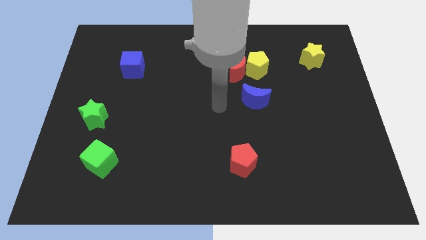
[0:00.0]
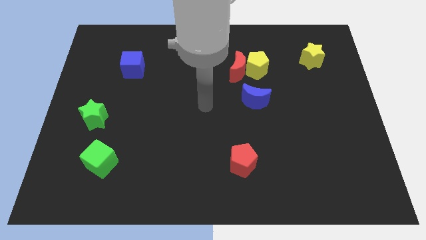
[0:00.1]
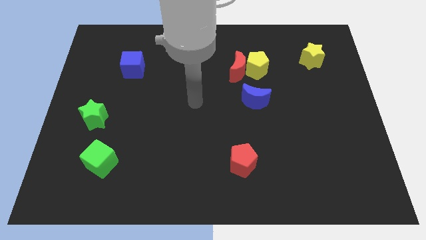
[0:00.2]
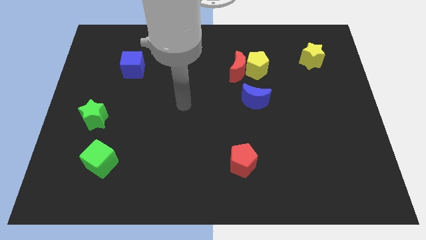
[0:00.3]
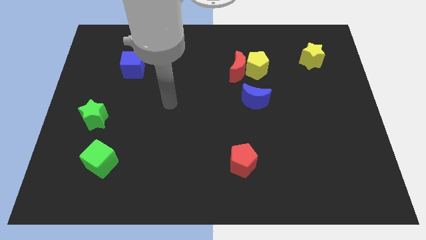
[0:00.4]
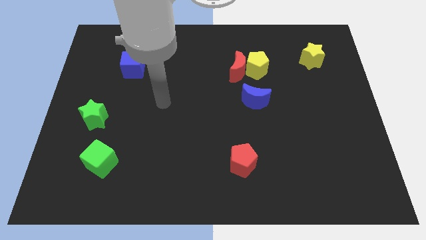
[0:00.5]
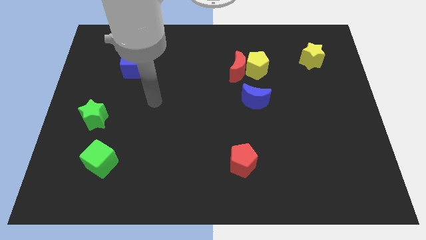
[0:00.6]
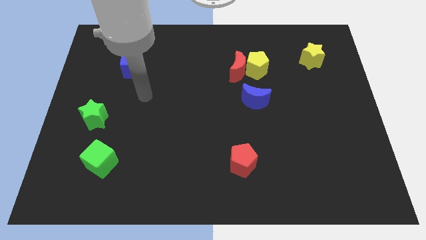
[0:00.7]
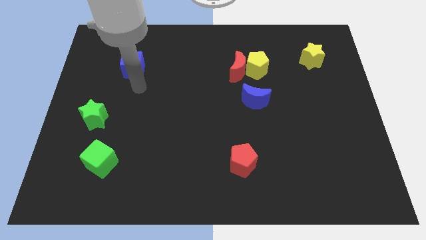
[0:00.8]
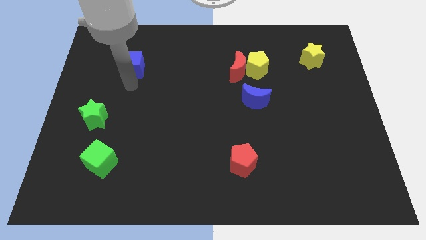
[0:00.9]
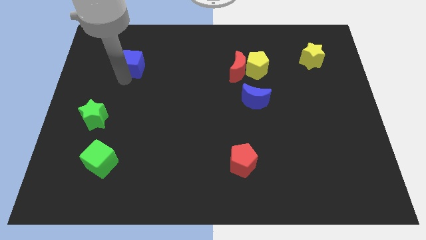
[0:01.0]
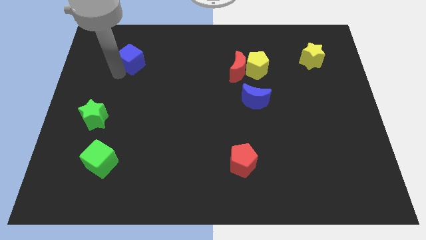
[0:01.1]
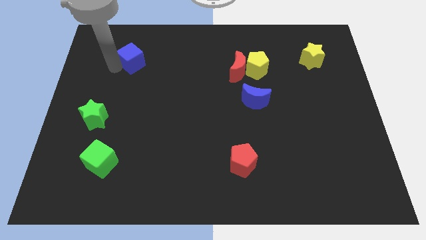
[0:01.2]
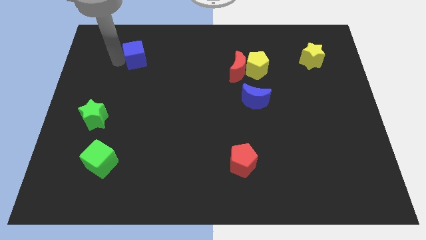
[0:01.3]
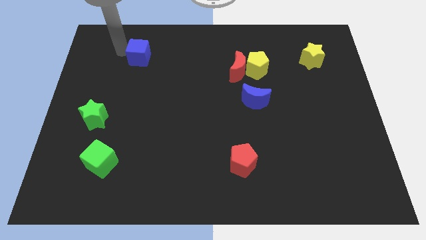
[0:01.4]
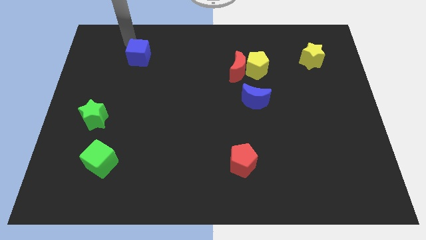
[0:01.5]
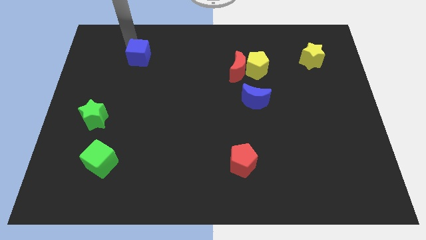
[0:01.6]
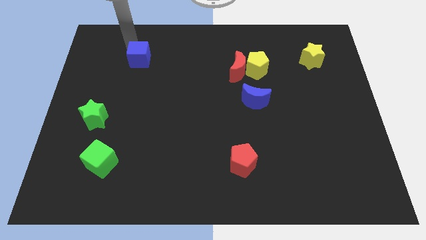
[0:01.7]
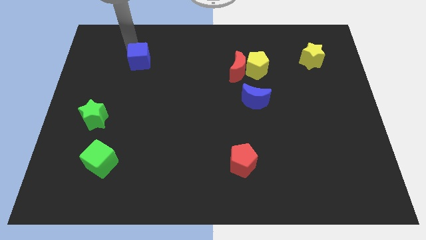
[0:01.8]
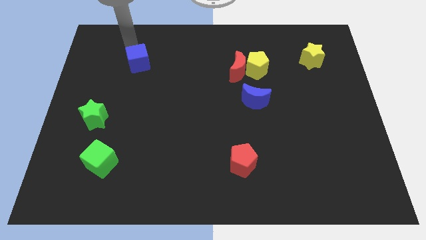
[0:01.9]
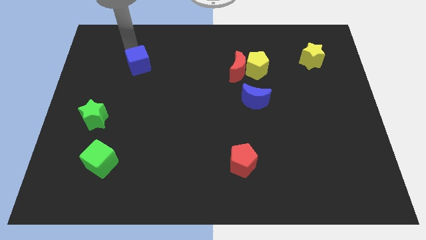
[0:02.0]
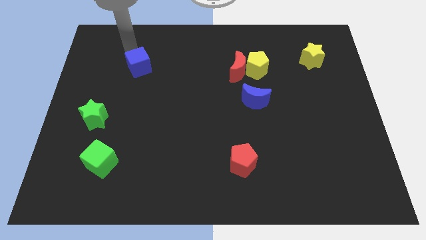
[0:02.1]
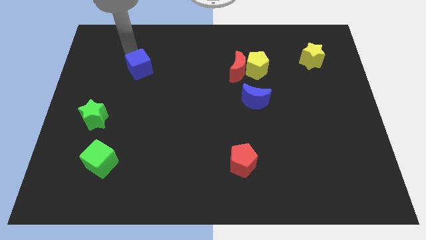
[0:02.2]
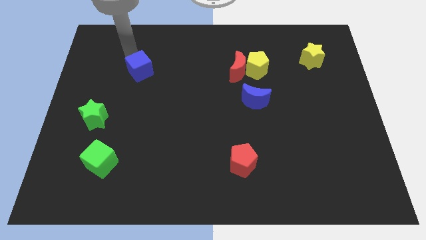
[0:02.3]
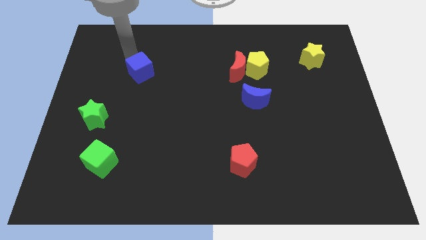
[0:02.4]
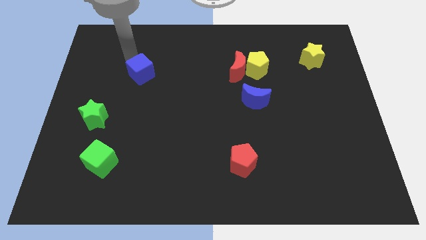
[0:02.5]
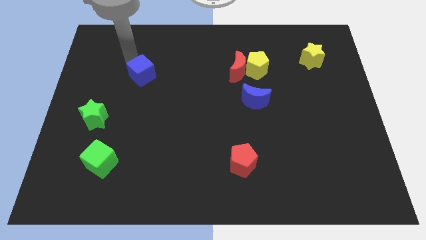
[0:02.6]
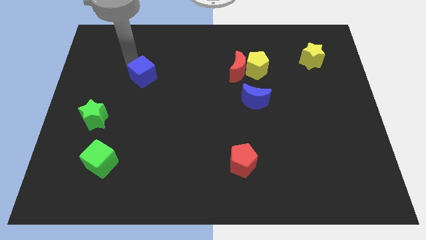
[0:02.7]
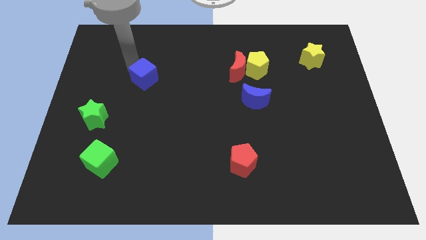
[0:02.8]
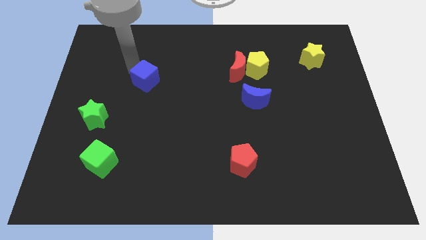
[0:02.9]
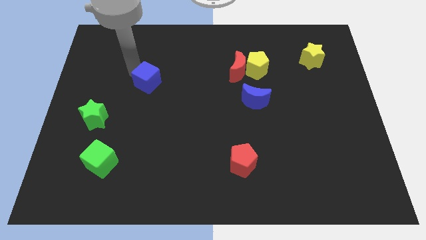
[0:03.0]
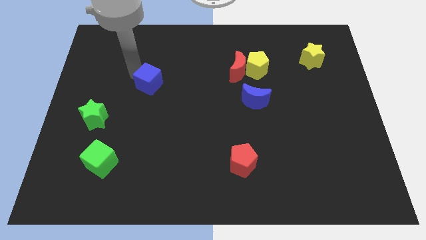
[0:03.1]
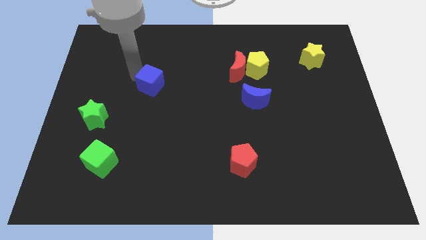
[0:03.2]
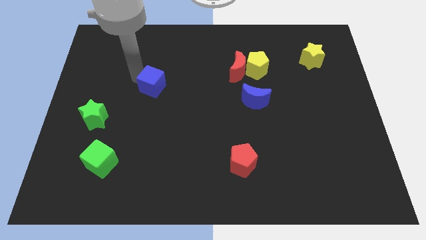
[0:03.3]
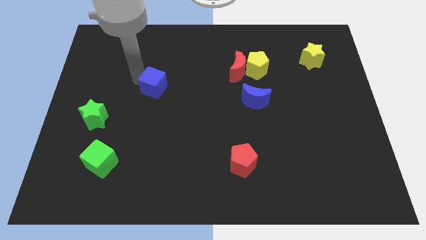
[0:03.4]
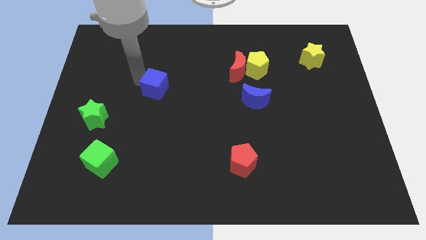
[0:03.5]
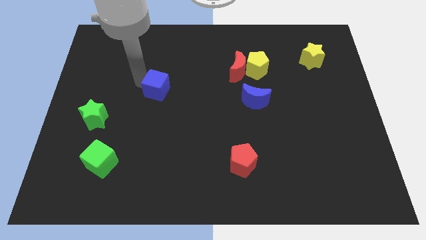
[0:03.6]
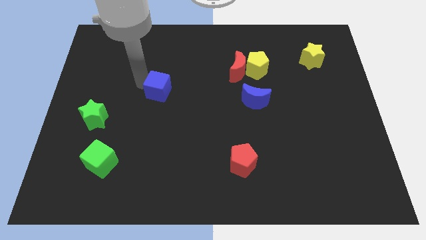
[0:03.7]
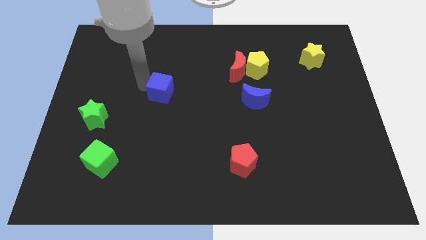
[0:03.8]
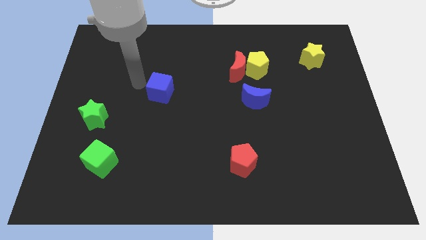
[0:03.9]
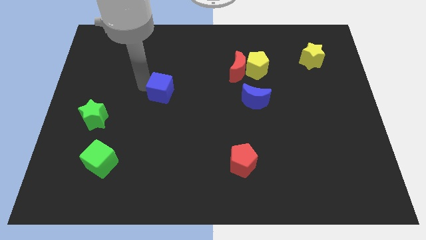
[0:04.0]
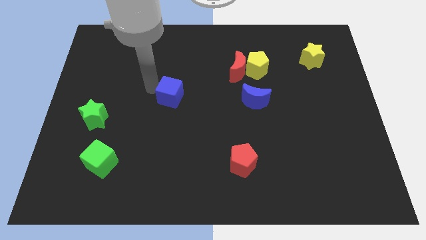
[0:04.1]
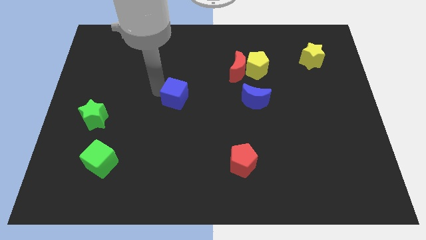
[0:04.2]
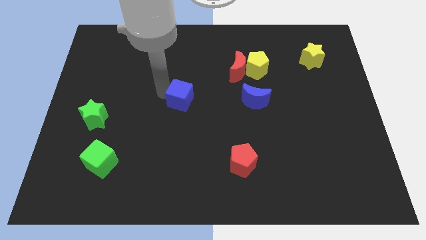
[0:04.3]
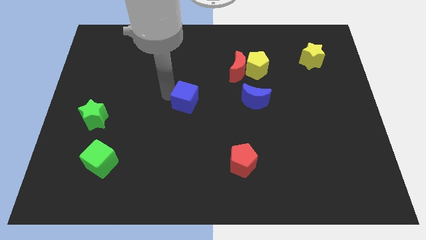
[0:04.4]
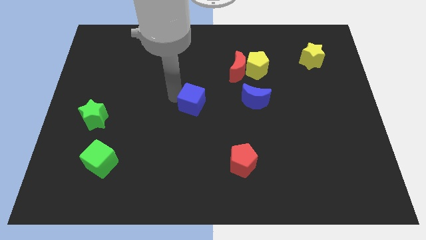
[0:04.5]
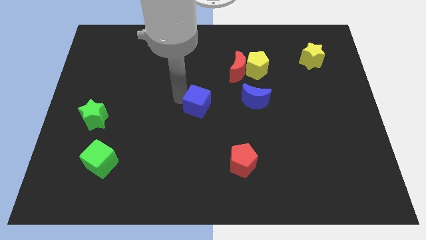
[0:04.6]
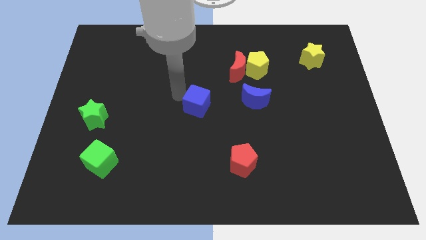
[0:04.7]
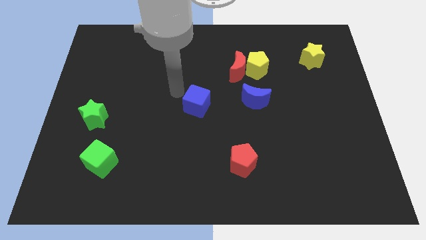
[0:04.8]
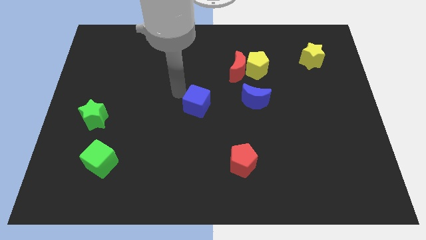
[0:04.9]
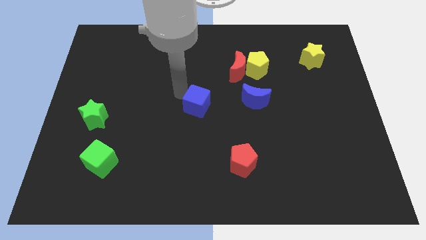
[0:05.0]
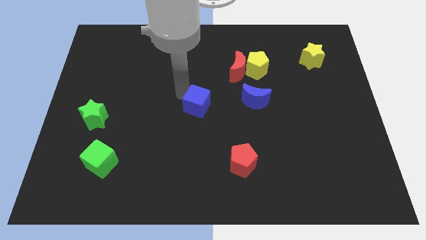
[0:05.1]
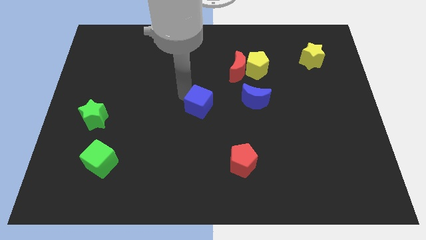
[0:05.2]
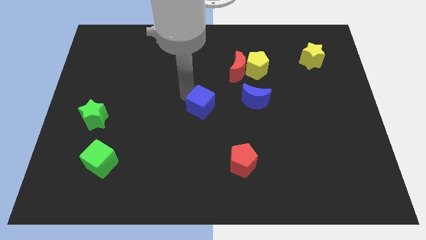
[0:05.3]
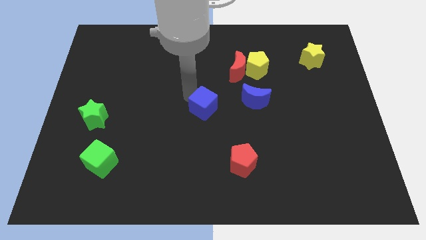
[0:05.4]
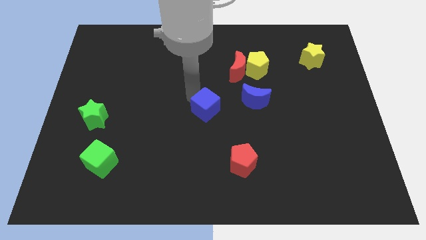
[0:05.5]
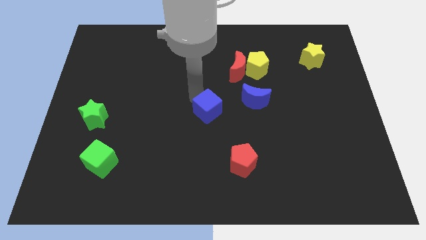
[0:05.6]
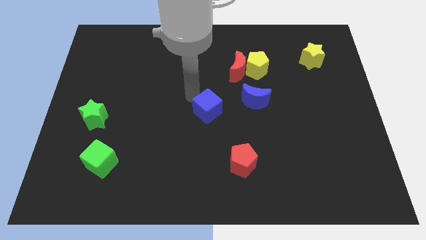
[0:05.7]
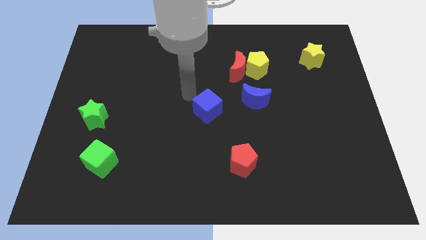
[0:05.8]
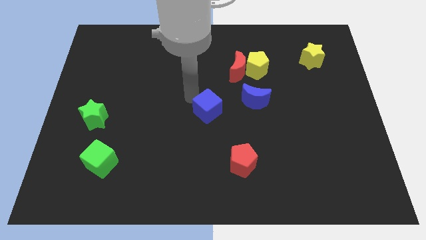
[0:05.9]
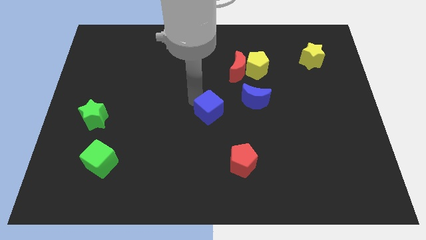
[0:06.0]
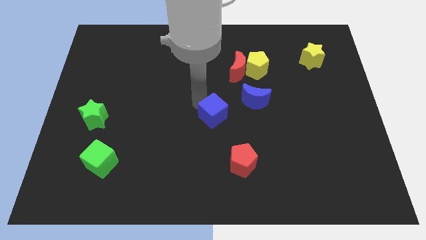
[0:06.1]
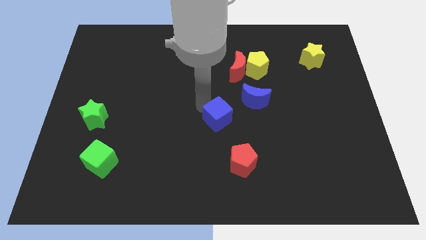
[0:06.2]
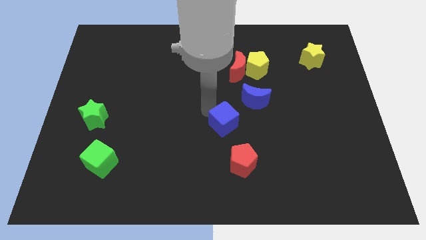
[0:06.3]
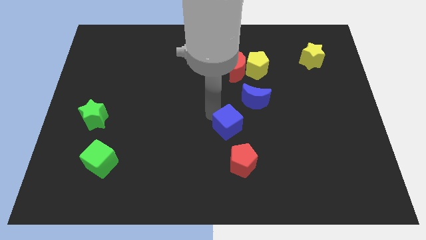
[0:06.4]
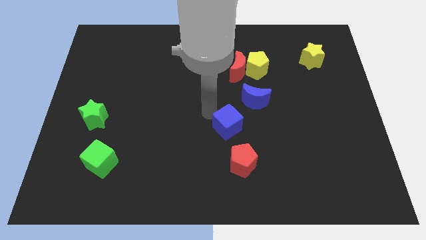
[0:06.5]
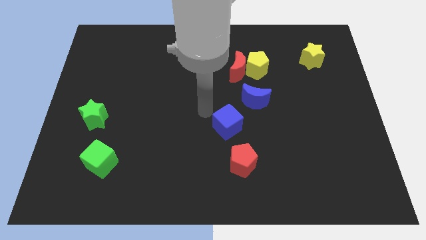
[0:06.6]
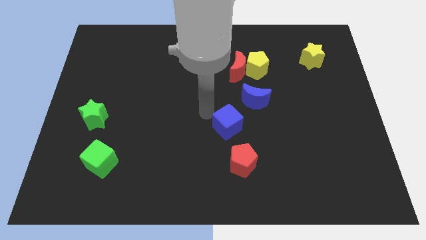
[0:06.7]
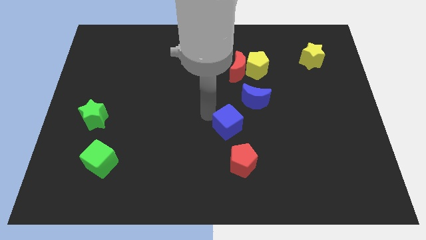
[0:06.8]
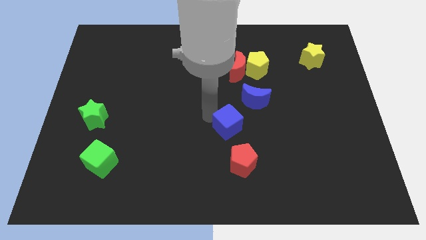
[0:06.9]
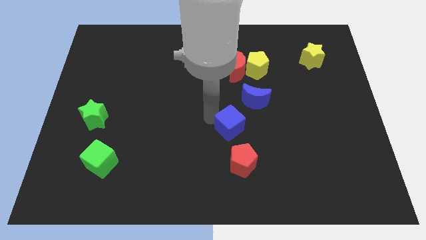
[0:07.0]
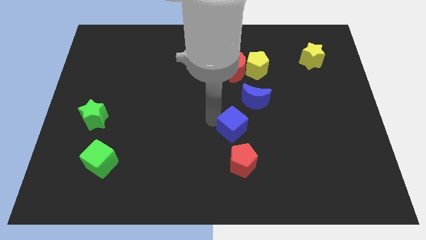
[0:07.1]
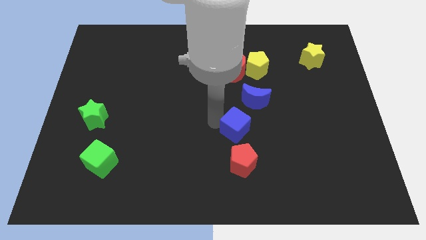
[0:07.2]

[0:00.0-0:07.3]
slide the blue cube below the blue moon

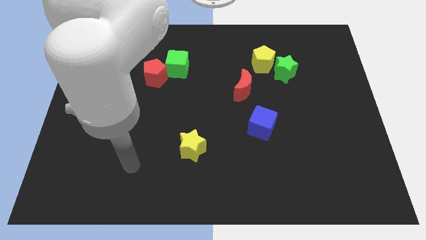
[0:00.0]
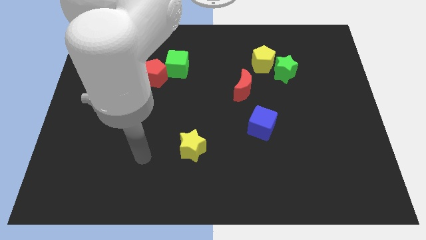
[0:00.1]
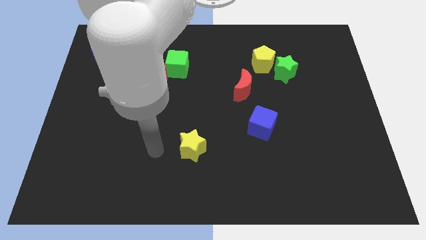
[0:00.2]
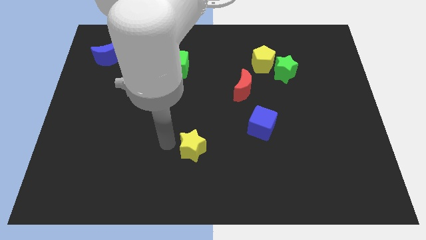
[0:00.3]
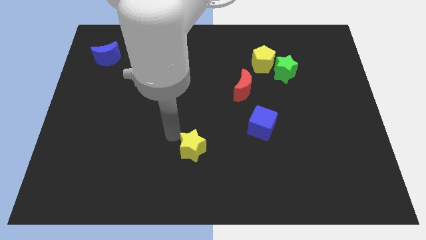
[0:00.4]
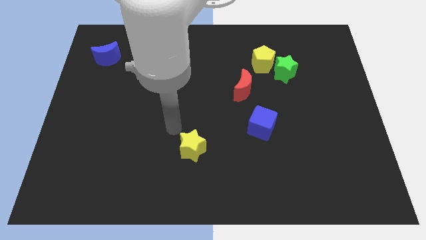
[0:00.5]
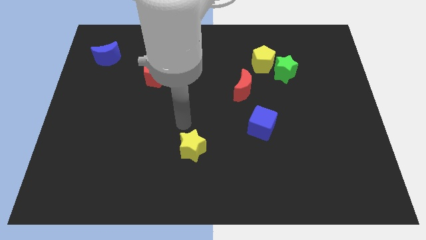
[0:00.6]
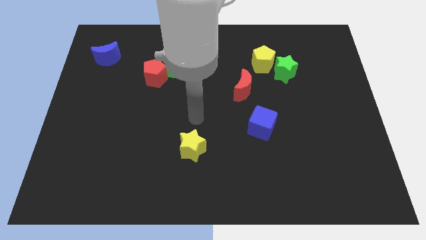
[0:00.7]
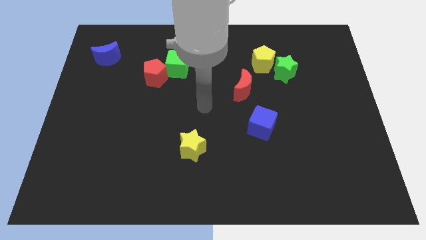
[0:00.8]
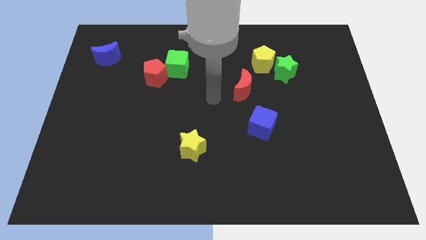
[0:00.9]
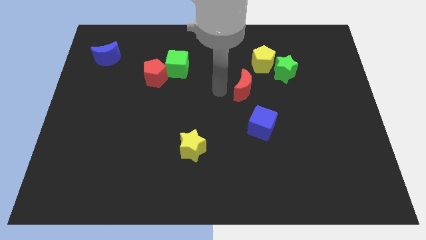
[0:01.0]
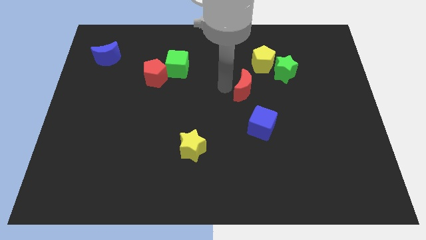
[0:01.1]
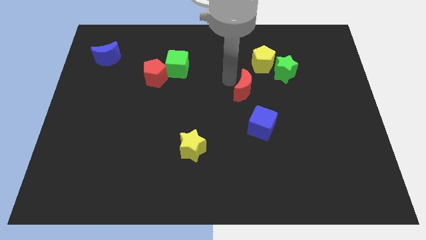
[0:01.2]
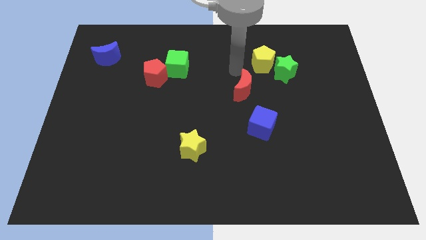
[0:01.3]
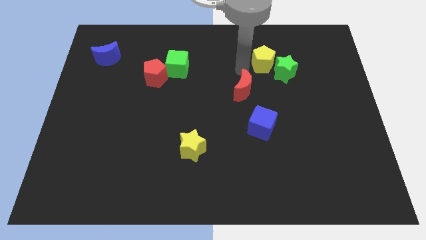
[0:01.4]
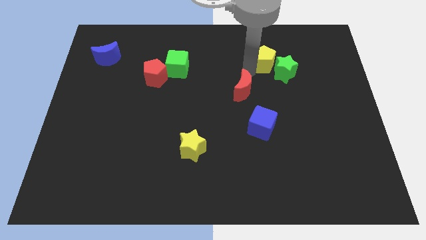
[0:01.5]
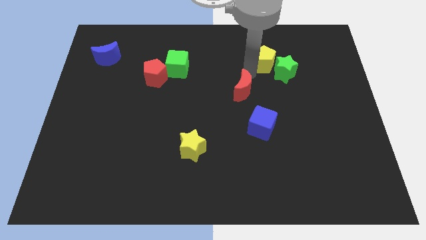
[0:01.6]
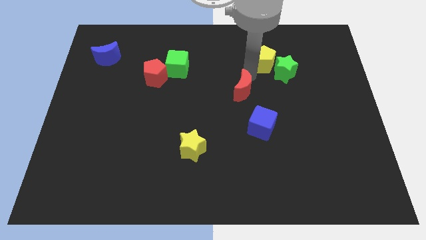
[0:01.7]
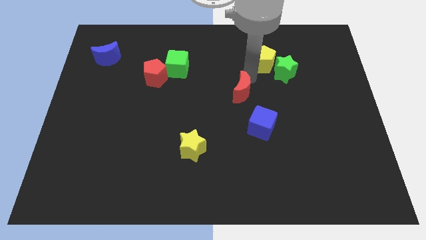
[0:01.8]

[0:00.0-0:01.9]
put the red moon to the top left of the blue cube
